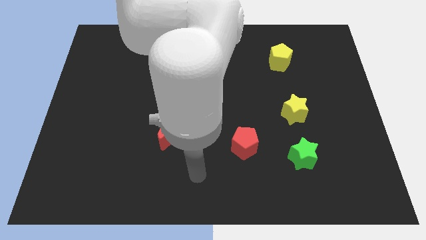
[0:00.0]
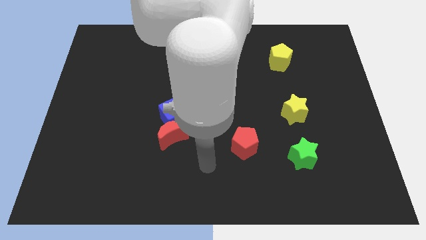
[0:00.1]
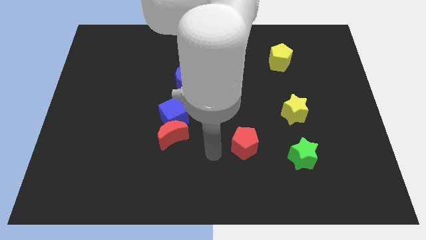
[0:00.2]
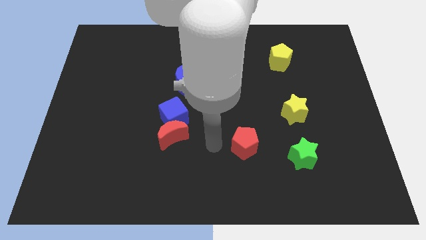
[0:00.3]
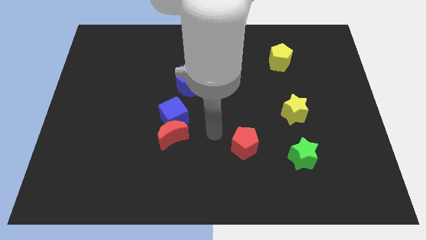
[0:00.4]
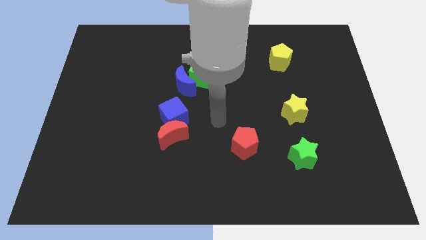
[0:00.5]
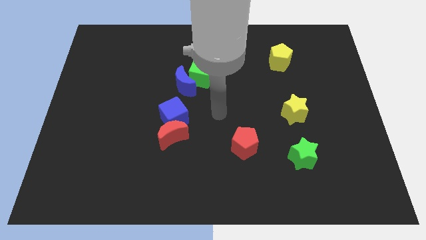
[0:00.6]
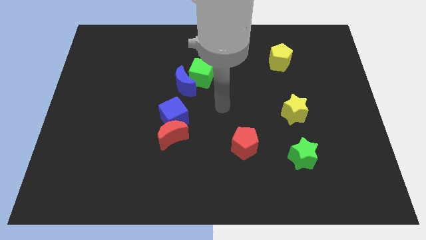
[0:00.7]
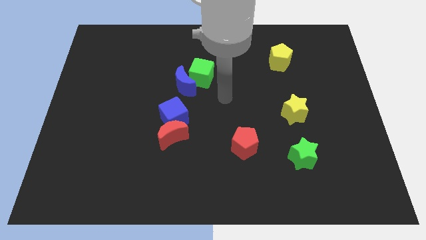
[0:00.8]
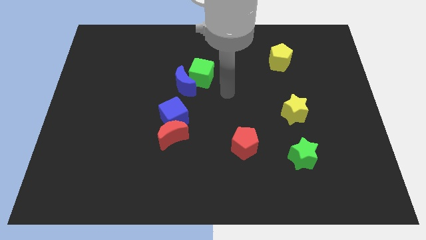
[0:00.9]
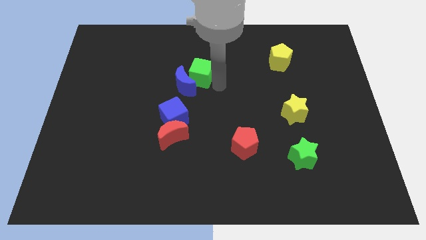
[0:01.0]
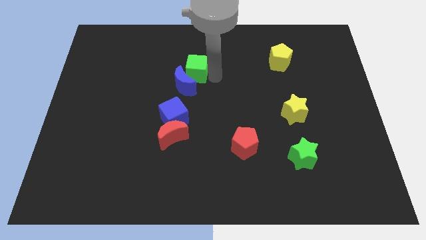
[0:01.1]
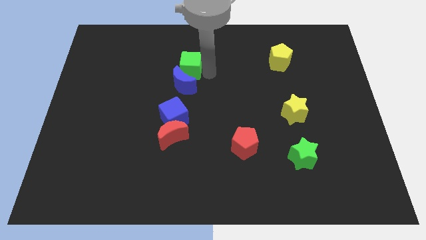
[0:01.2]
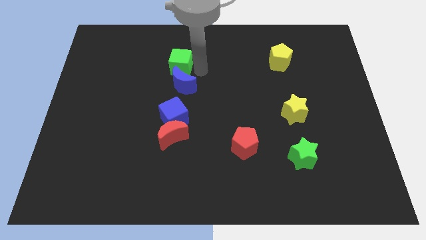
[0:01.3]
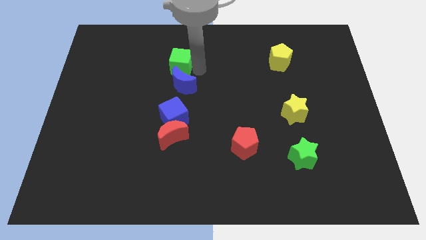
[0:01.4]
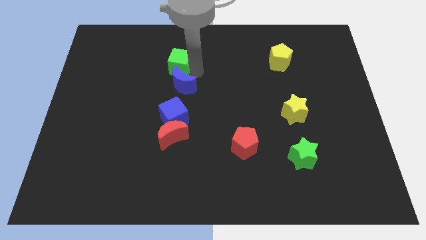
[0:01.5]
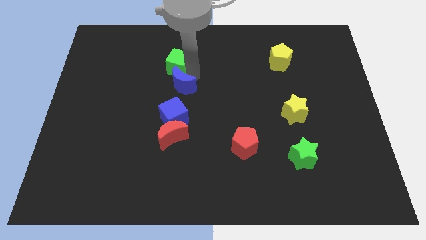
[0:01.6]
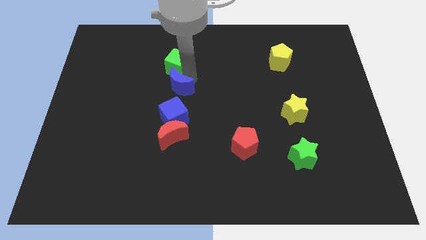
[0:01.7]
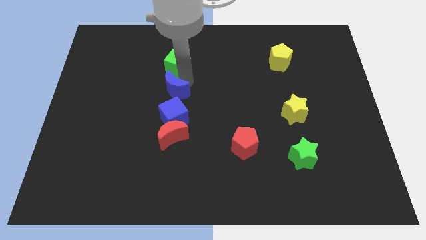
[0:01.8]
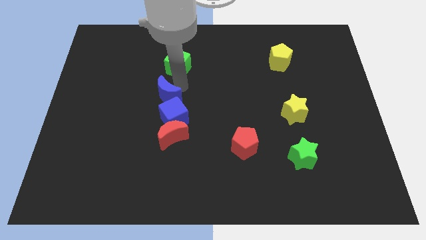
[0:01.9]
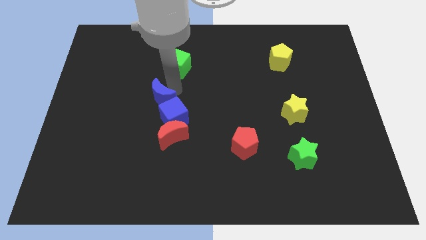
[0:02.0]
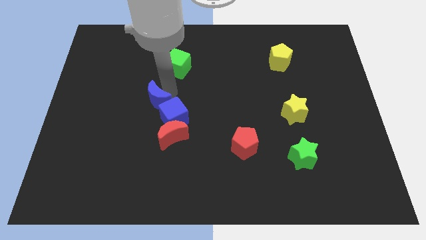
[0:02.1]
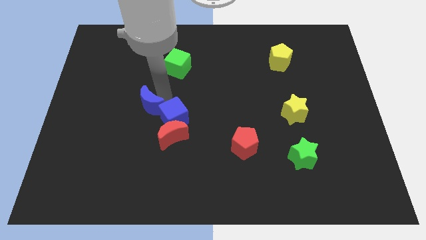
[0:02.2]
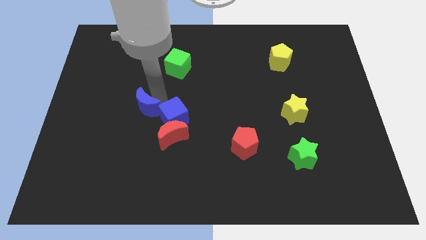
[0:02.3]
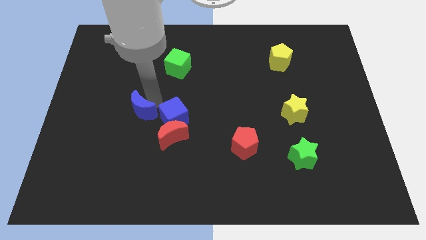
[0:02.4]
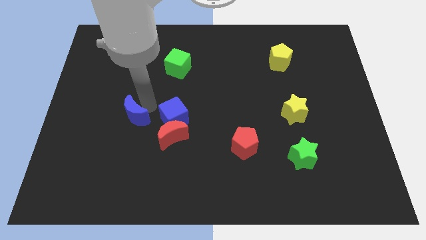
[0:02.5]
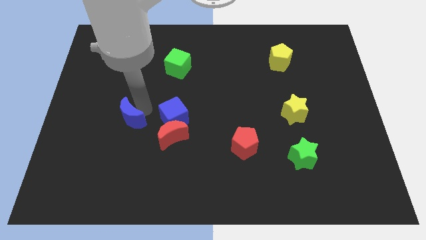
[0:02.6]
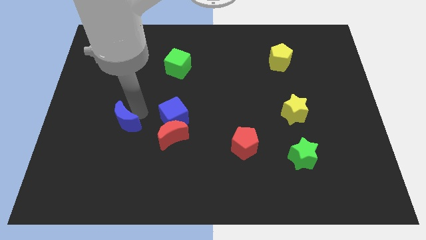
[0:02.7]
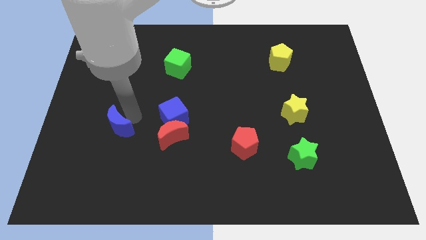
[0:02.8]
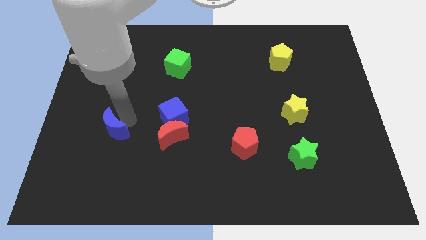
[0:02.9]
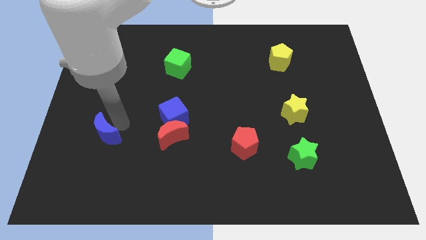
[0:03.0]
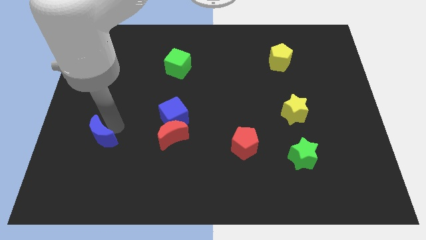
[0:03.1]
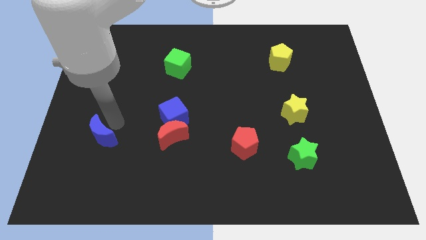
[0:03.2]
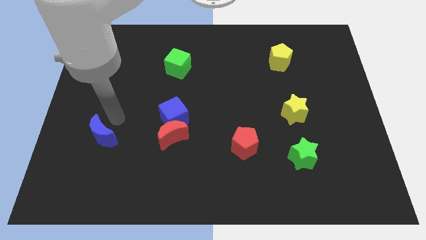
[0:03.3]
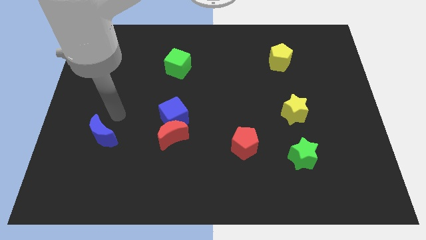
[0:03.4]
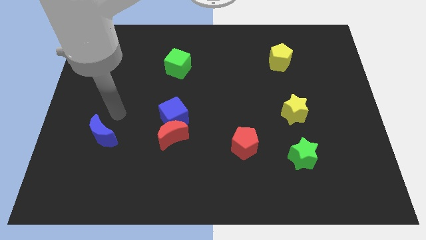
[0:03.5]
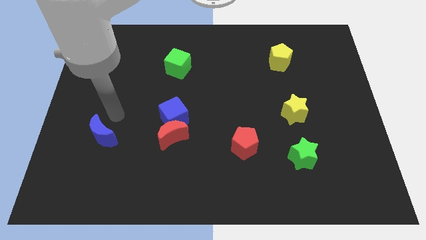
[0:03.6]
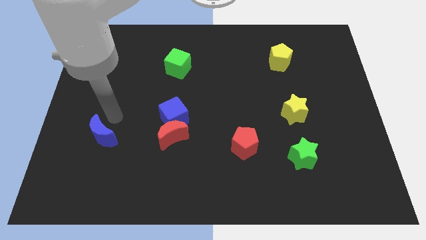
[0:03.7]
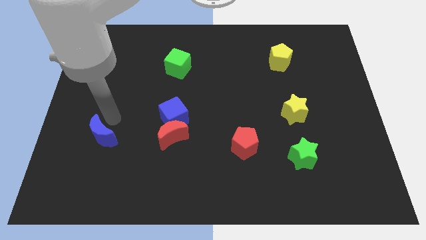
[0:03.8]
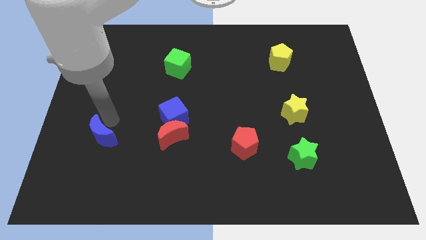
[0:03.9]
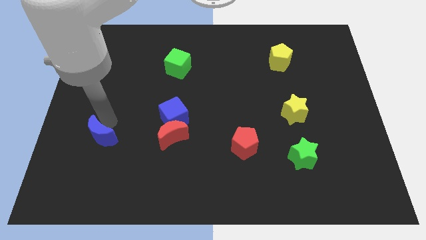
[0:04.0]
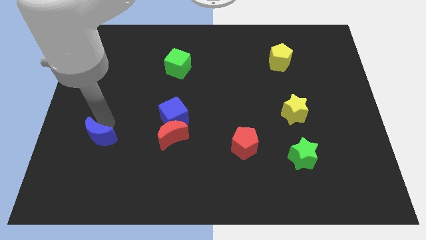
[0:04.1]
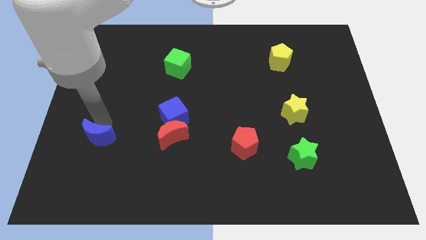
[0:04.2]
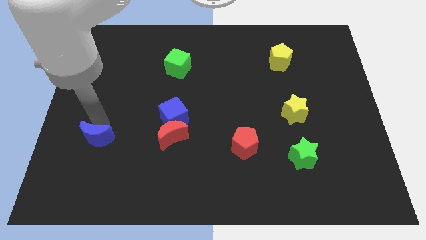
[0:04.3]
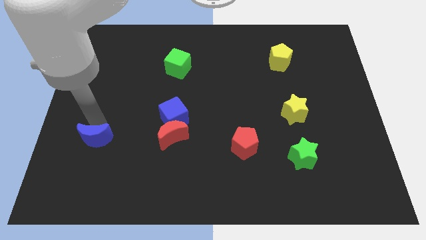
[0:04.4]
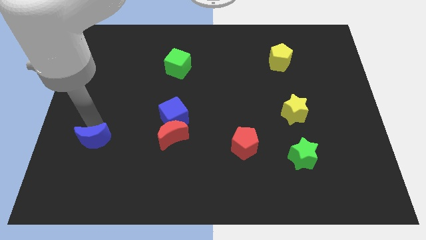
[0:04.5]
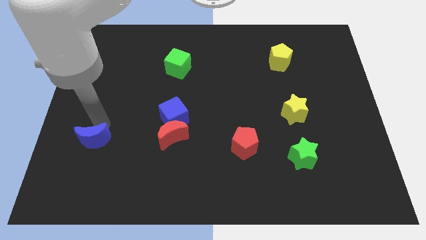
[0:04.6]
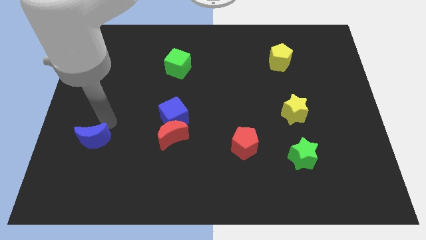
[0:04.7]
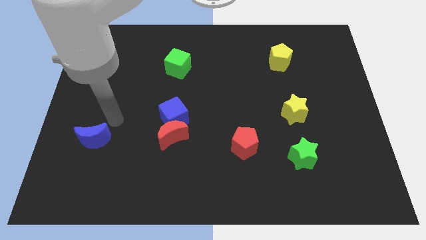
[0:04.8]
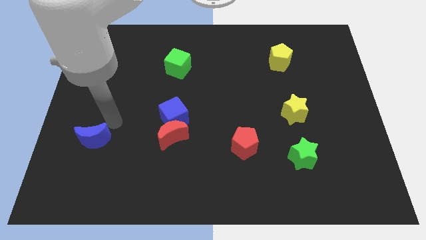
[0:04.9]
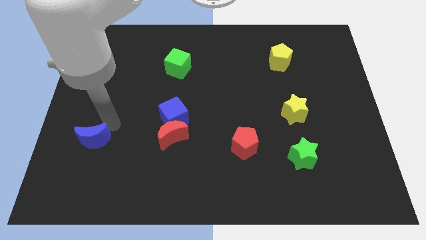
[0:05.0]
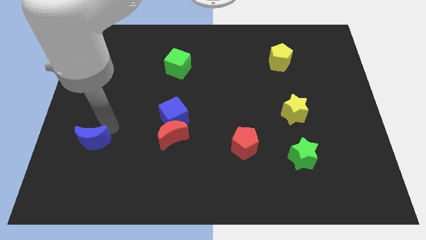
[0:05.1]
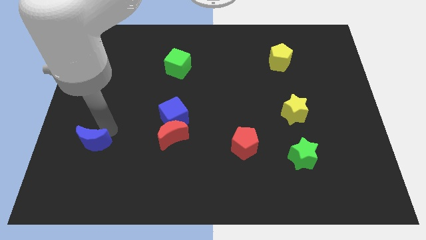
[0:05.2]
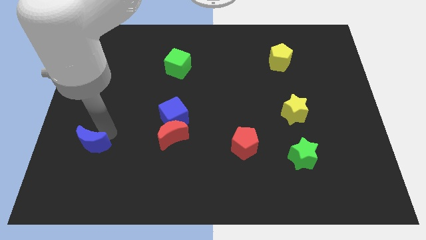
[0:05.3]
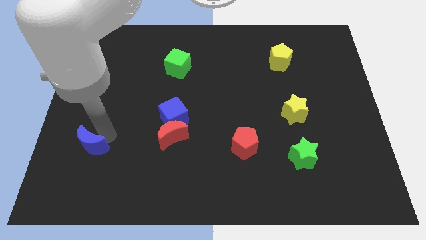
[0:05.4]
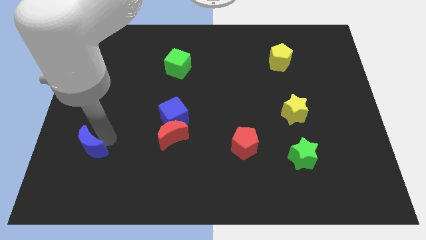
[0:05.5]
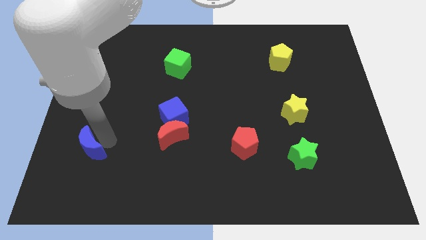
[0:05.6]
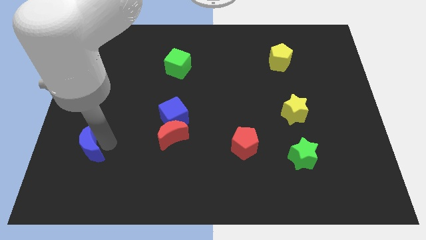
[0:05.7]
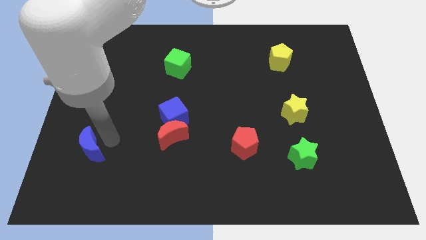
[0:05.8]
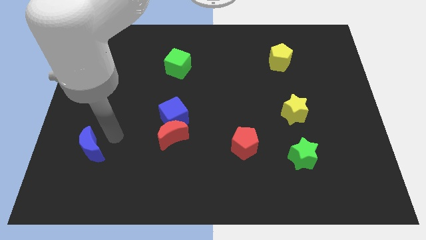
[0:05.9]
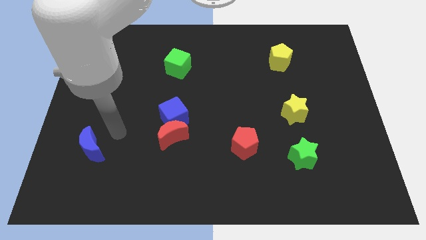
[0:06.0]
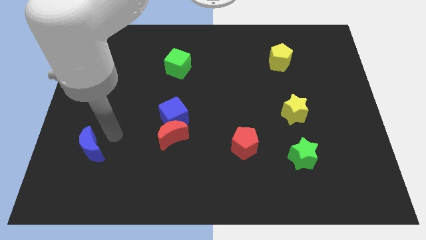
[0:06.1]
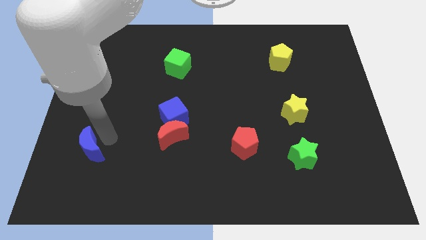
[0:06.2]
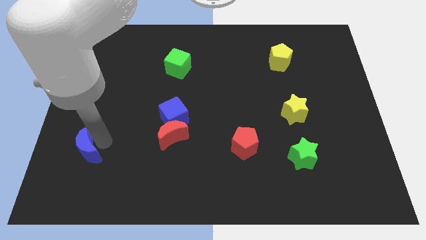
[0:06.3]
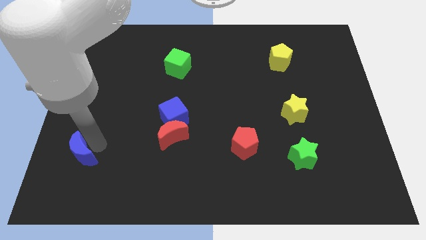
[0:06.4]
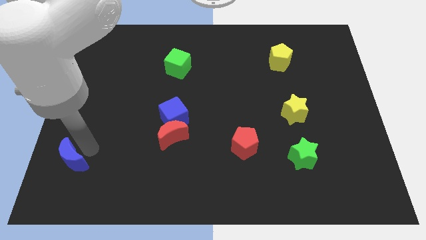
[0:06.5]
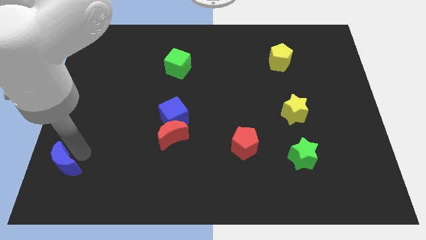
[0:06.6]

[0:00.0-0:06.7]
slide the blue moon to the bottom left
